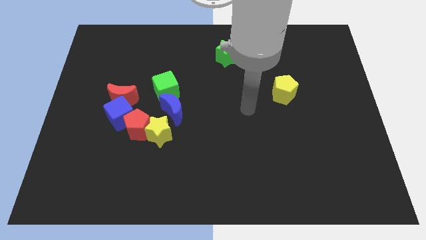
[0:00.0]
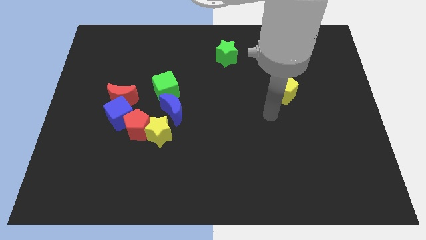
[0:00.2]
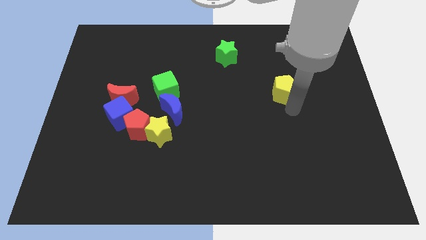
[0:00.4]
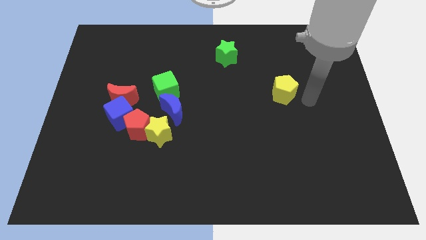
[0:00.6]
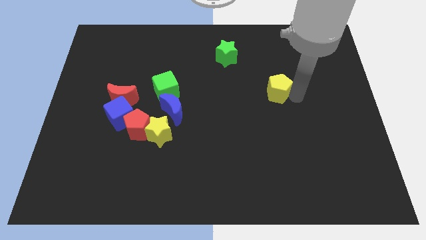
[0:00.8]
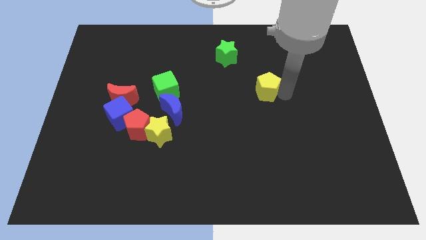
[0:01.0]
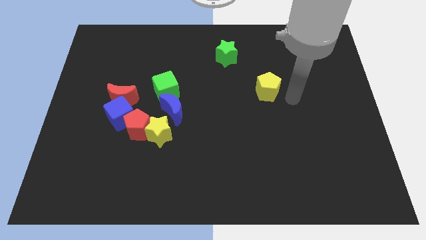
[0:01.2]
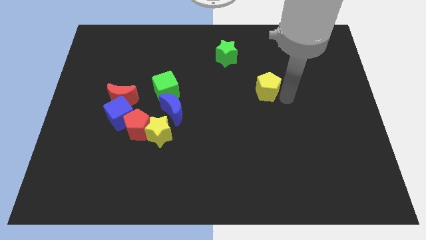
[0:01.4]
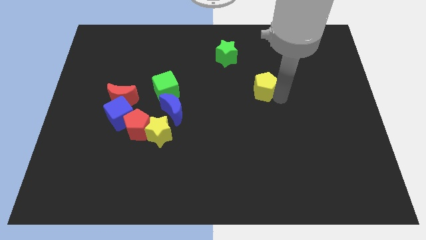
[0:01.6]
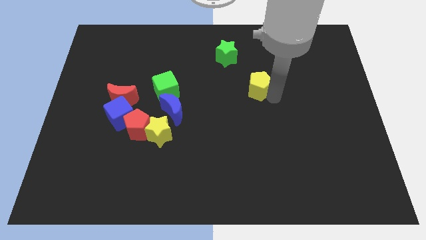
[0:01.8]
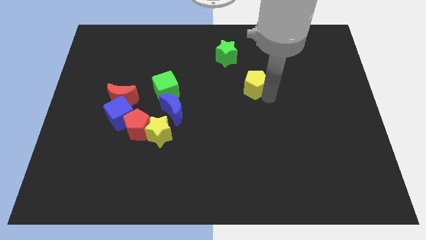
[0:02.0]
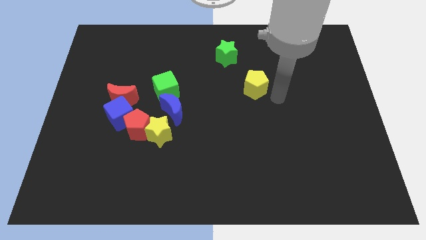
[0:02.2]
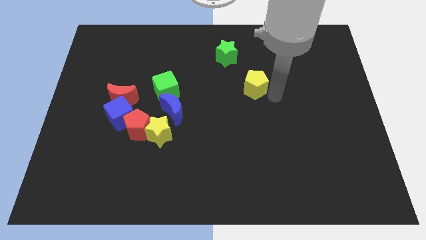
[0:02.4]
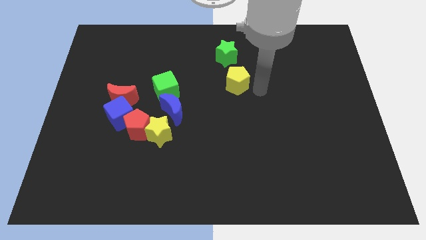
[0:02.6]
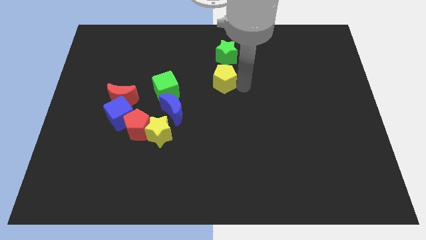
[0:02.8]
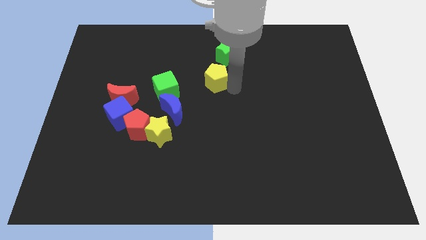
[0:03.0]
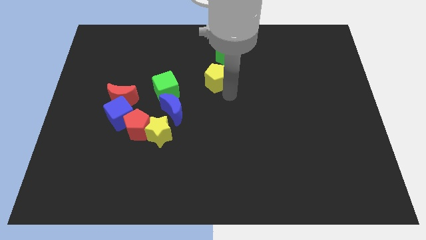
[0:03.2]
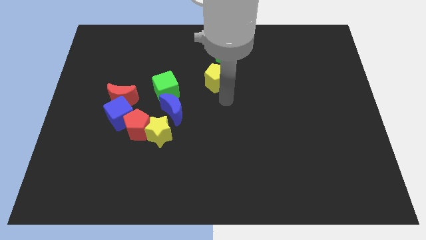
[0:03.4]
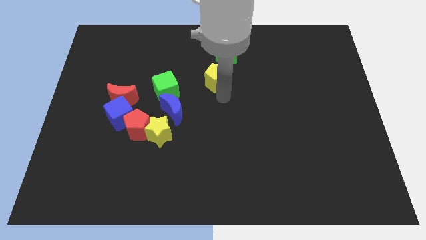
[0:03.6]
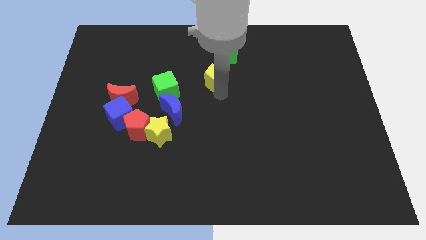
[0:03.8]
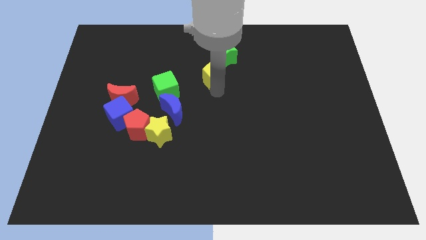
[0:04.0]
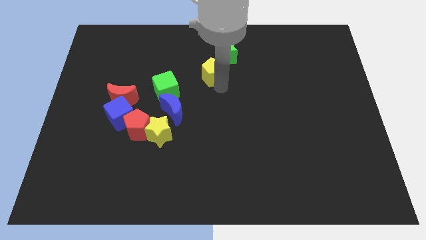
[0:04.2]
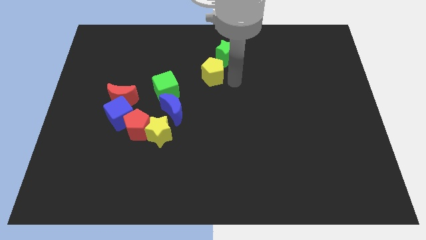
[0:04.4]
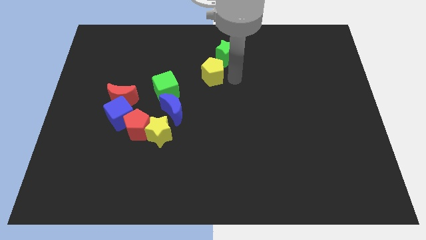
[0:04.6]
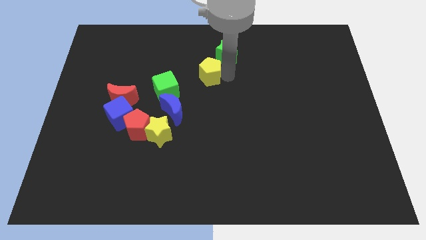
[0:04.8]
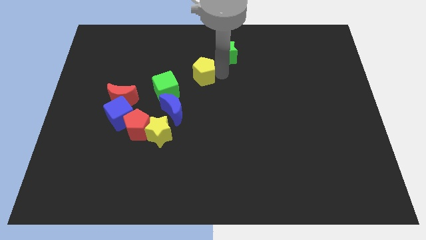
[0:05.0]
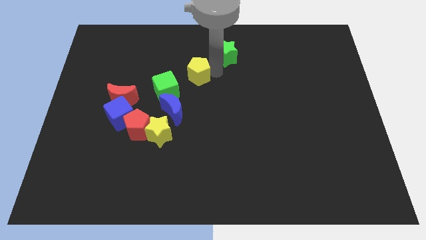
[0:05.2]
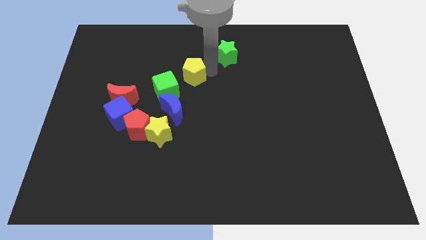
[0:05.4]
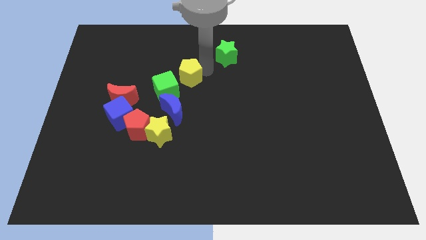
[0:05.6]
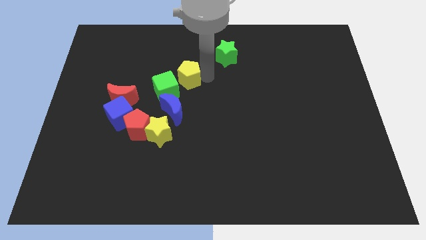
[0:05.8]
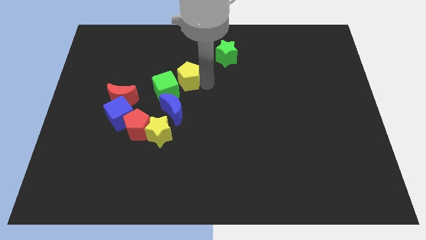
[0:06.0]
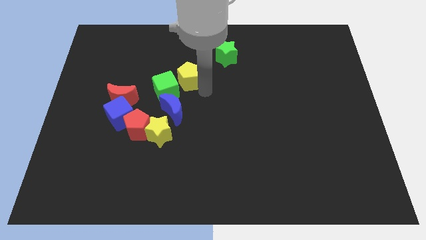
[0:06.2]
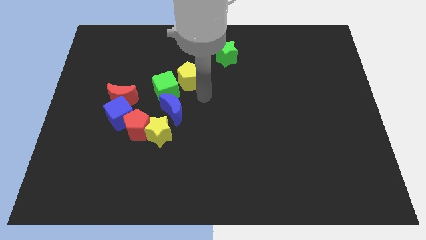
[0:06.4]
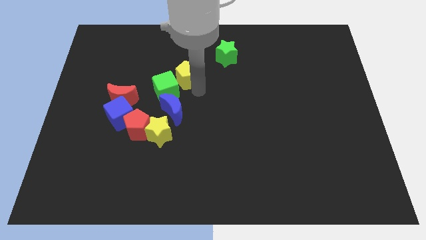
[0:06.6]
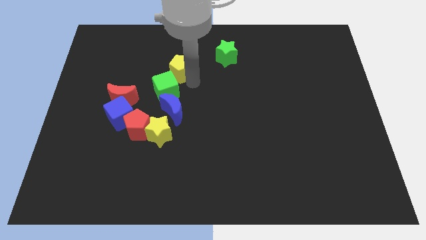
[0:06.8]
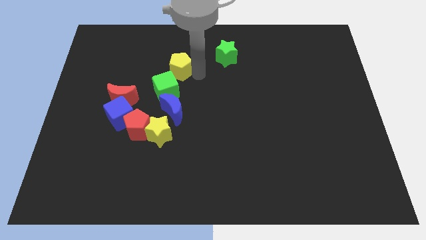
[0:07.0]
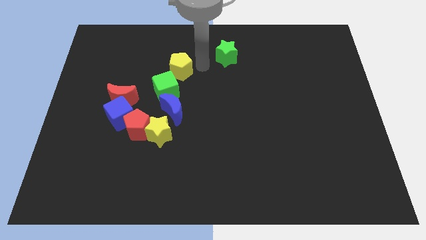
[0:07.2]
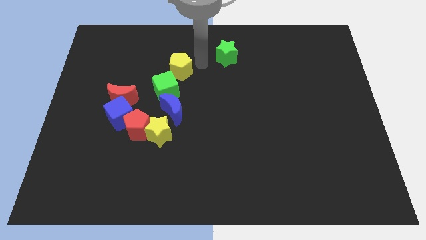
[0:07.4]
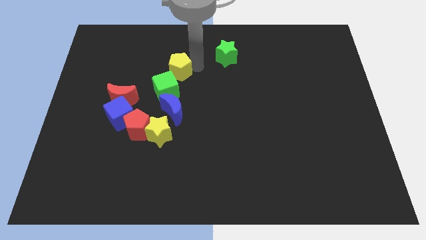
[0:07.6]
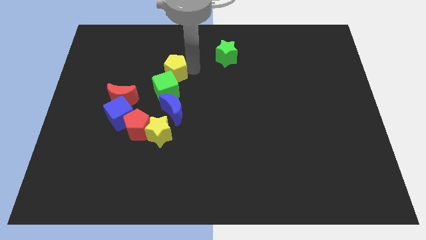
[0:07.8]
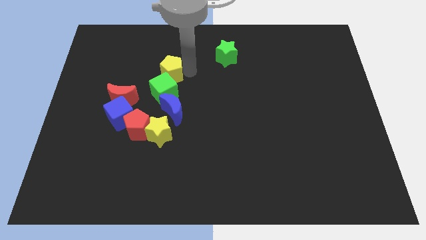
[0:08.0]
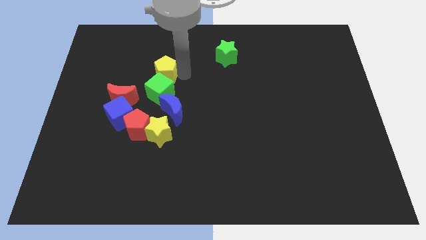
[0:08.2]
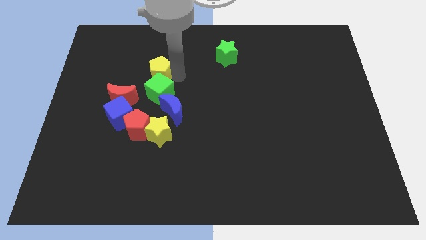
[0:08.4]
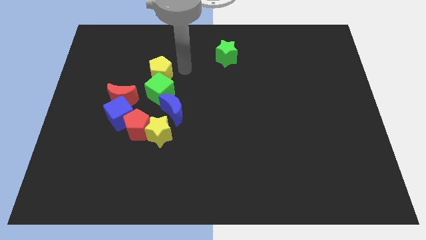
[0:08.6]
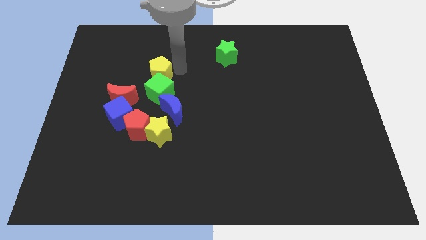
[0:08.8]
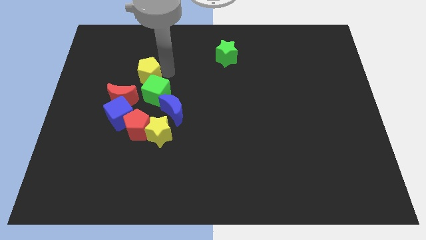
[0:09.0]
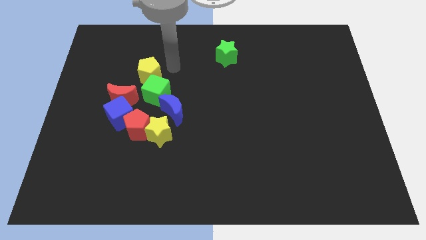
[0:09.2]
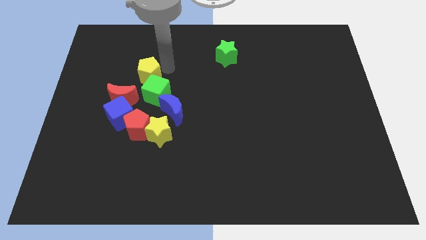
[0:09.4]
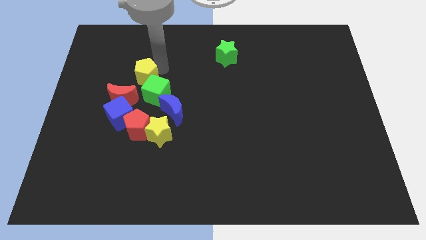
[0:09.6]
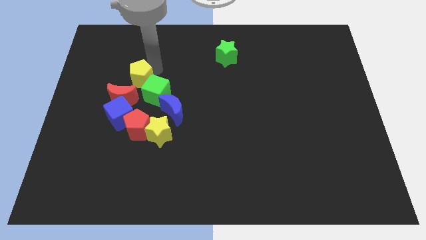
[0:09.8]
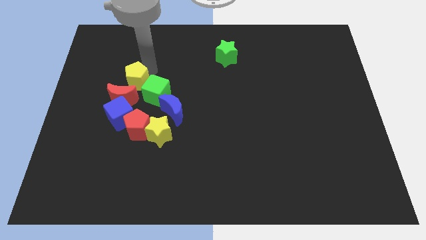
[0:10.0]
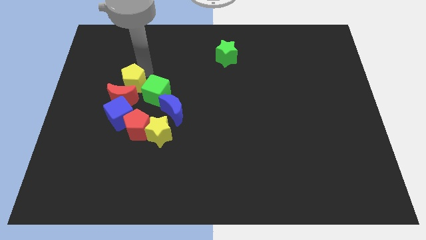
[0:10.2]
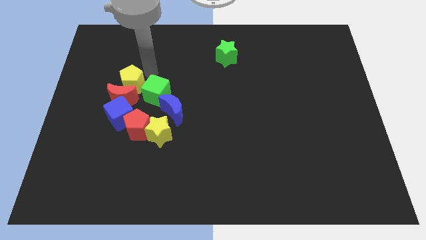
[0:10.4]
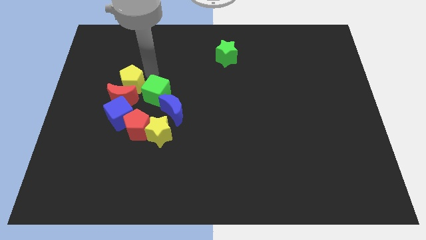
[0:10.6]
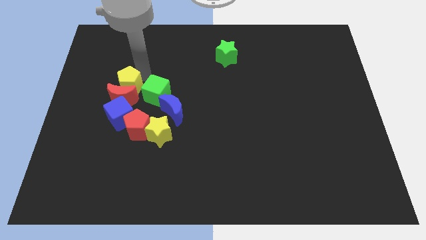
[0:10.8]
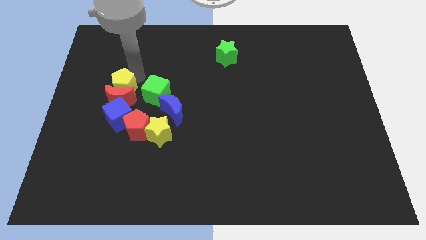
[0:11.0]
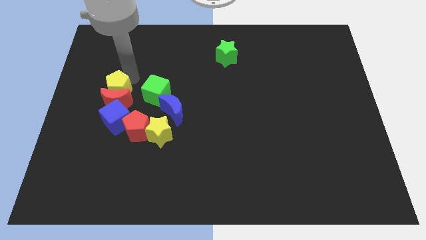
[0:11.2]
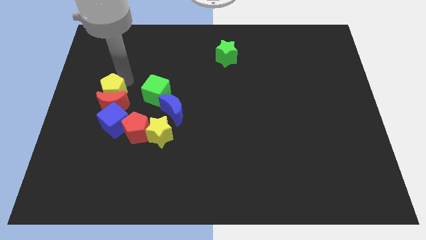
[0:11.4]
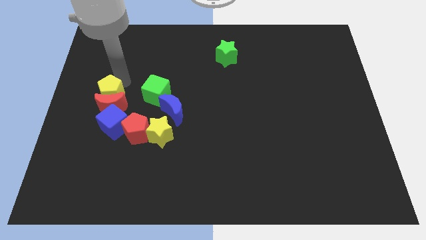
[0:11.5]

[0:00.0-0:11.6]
put the yellow pentagon to the top left of the blue cube
